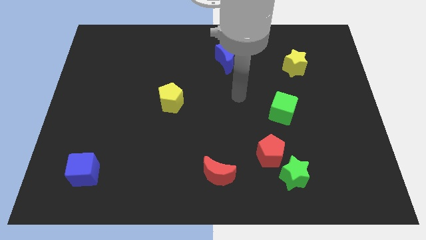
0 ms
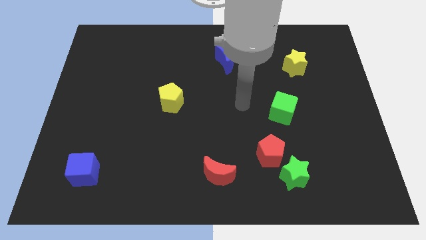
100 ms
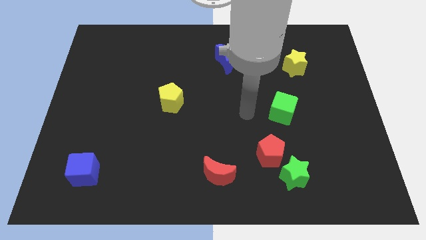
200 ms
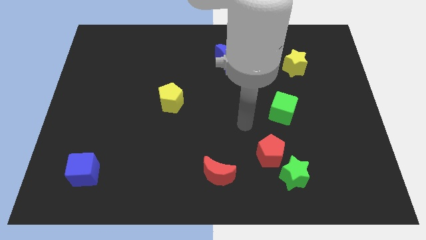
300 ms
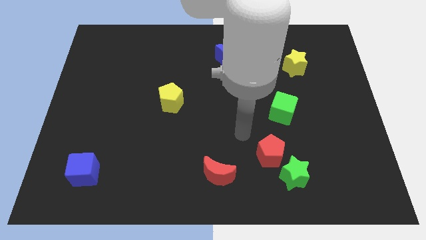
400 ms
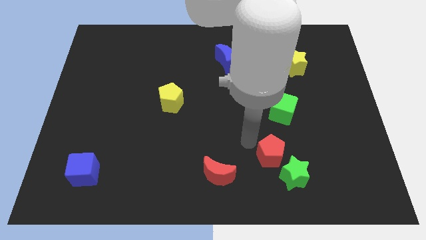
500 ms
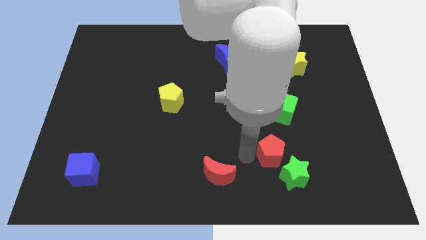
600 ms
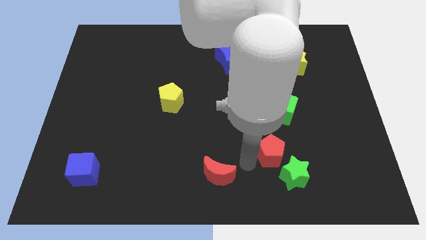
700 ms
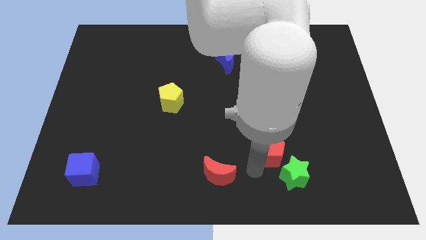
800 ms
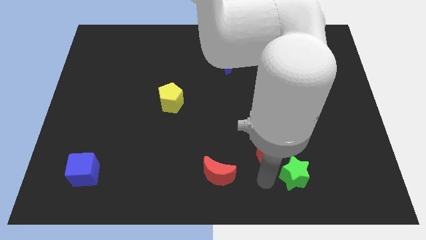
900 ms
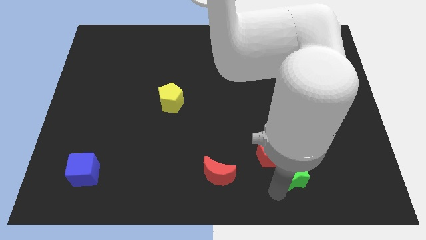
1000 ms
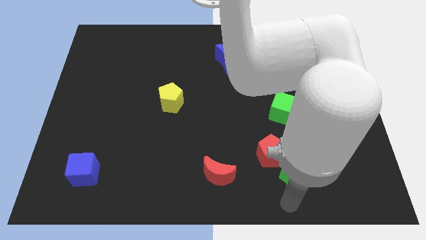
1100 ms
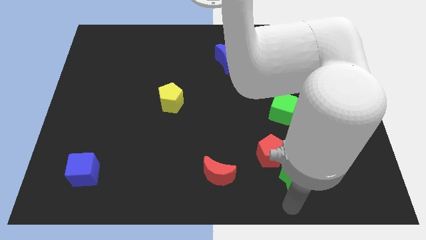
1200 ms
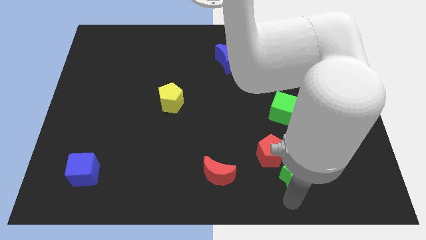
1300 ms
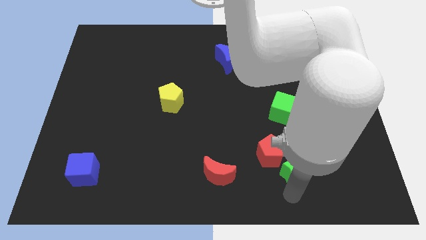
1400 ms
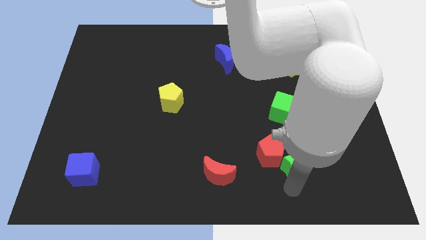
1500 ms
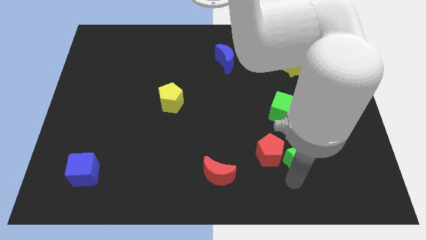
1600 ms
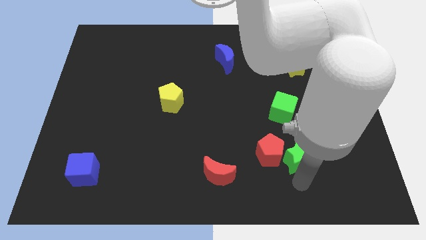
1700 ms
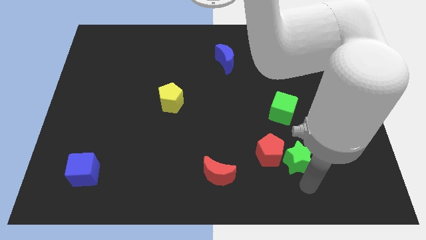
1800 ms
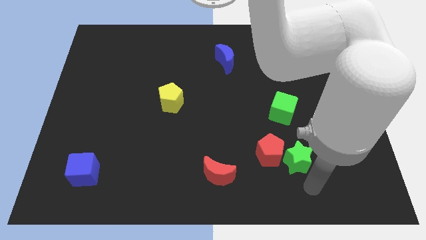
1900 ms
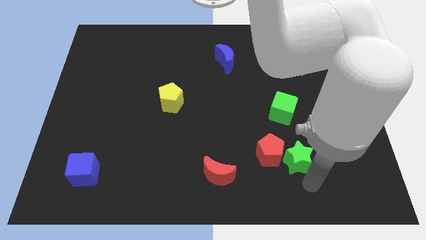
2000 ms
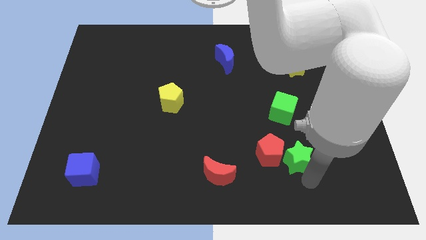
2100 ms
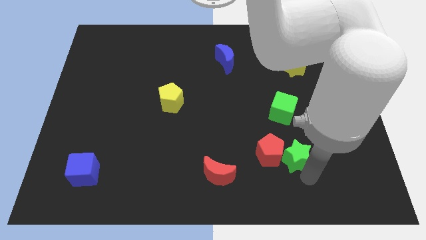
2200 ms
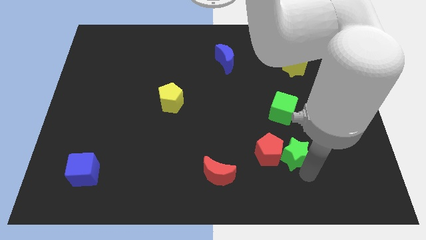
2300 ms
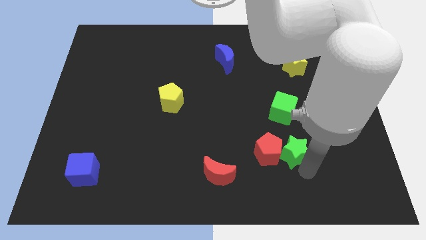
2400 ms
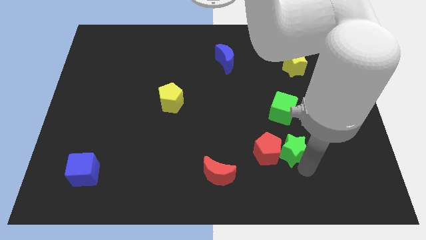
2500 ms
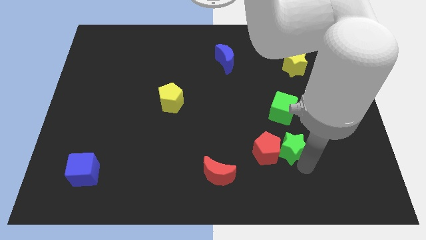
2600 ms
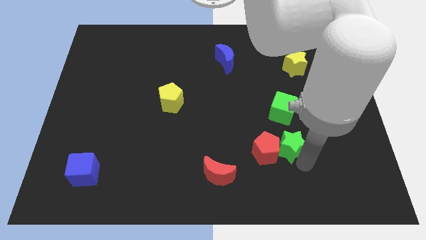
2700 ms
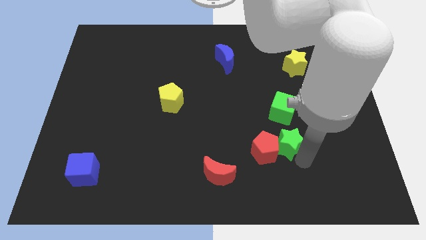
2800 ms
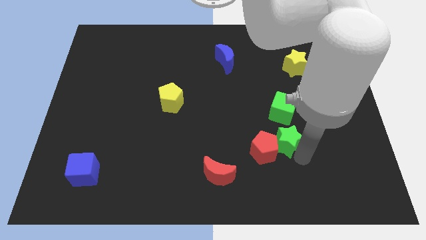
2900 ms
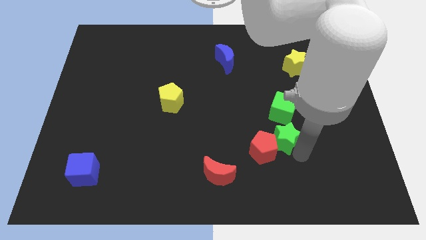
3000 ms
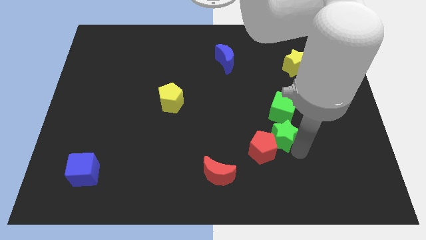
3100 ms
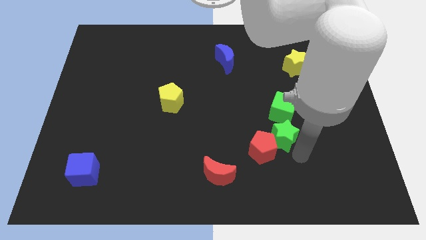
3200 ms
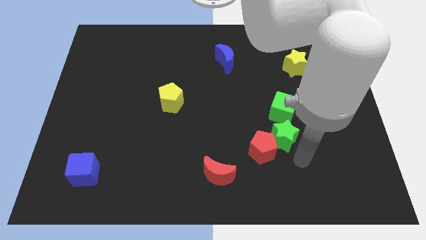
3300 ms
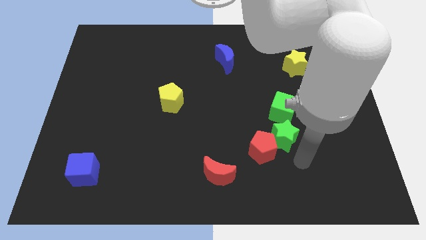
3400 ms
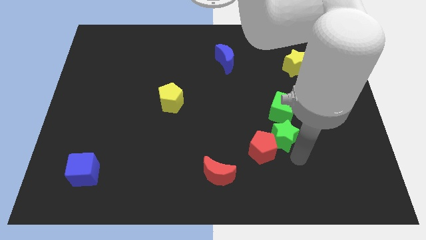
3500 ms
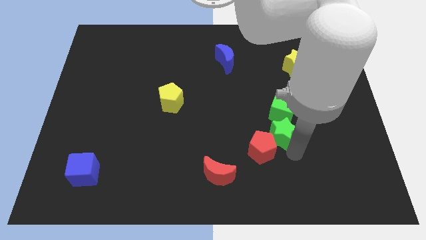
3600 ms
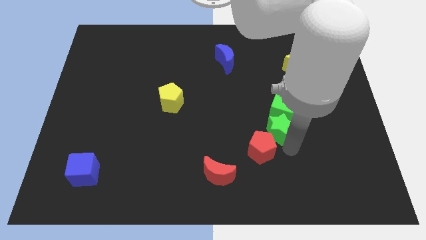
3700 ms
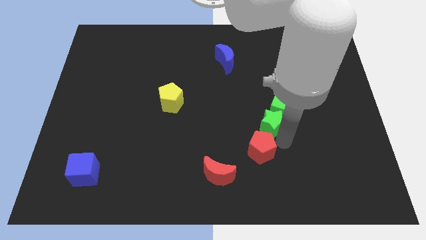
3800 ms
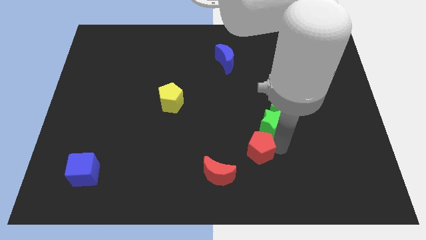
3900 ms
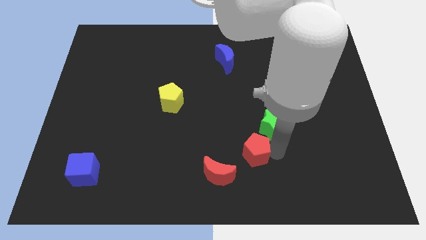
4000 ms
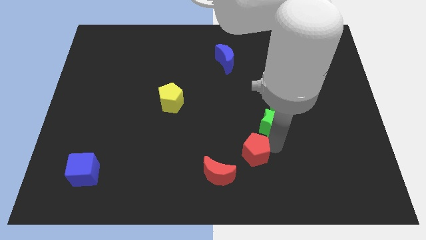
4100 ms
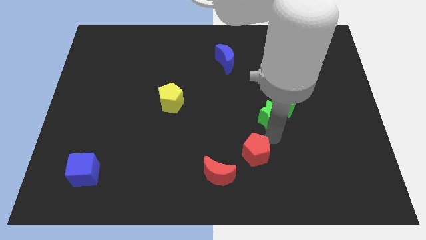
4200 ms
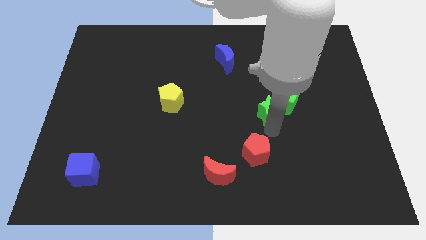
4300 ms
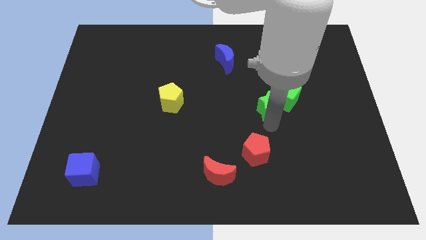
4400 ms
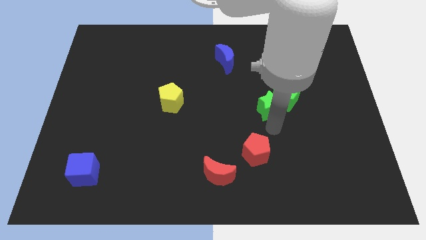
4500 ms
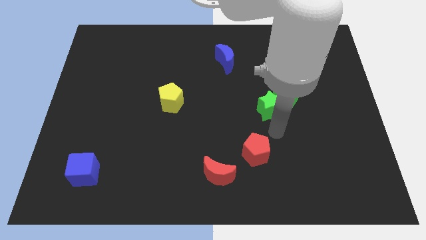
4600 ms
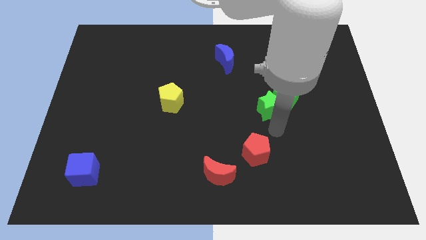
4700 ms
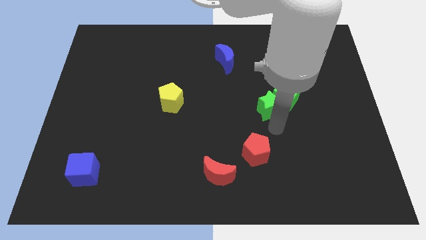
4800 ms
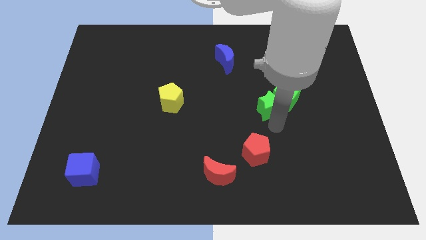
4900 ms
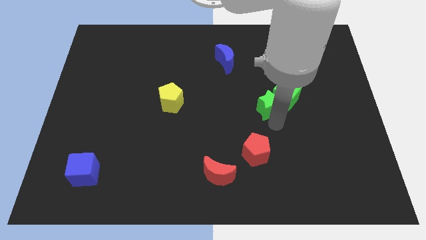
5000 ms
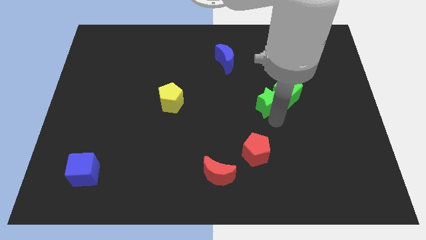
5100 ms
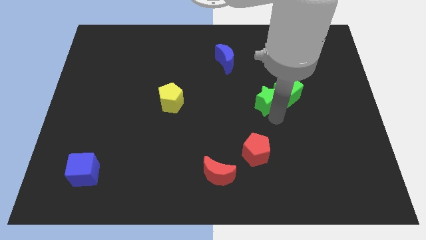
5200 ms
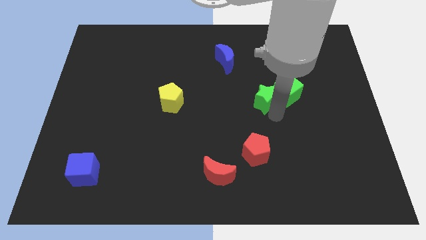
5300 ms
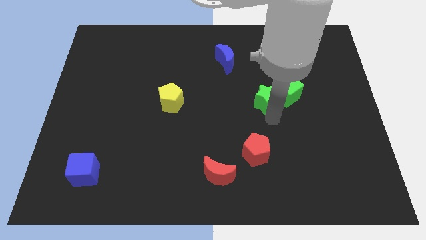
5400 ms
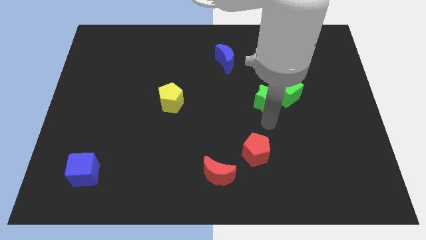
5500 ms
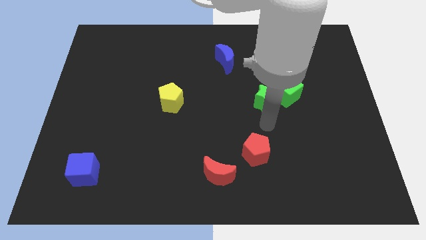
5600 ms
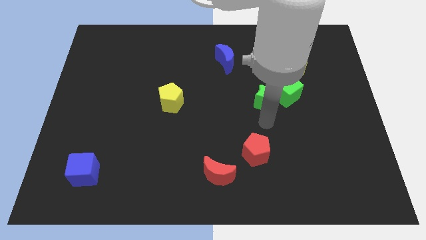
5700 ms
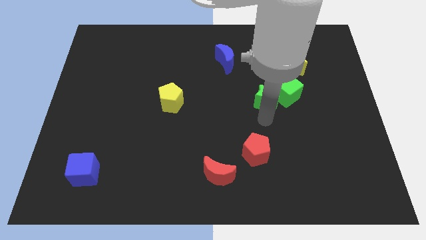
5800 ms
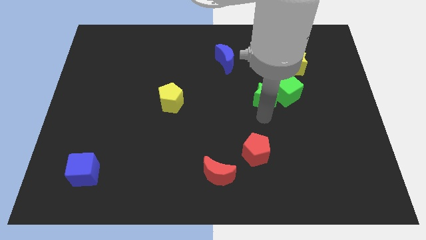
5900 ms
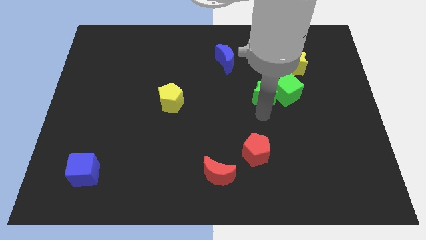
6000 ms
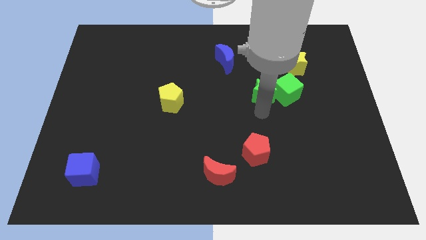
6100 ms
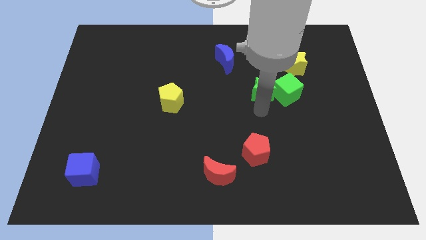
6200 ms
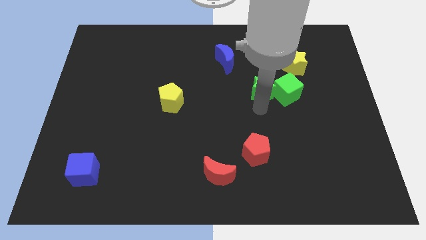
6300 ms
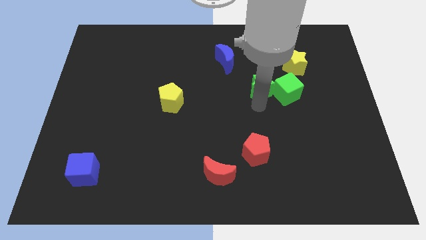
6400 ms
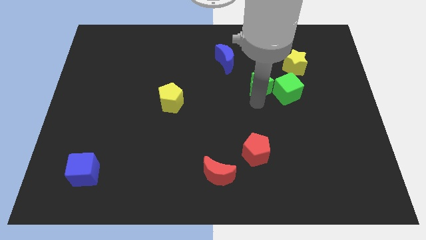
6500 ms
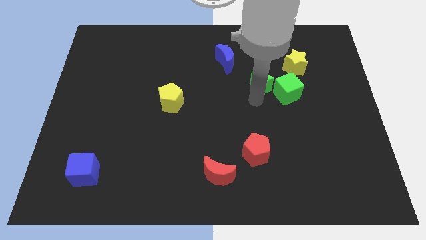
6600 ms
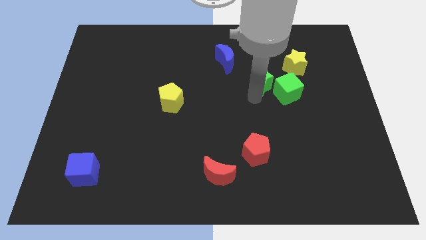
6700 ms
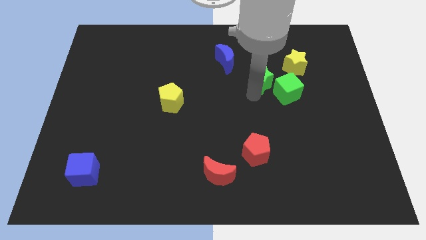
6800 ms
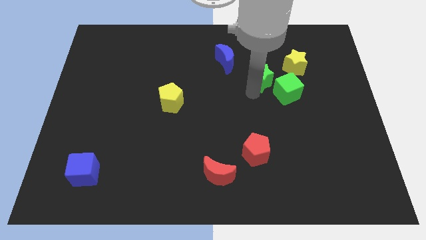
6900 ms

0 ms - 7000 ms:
push the green star to the left of the yellow star

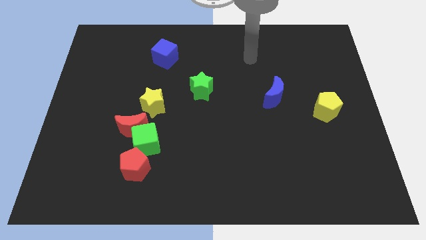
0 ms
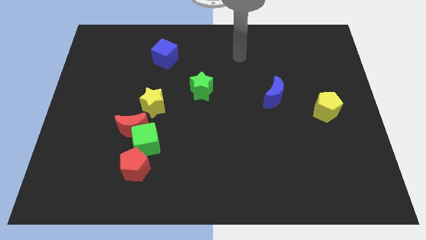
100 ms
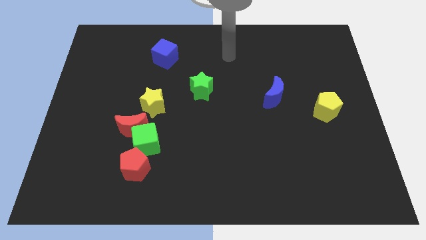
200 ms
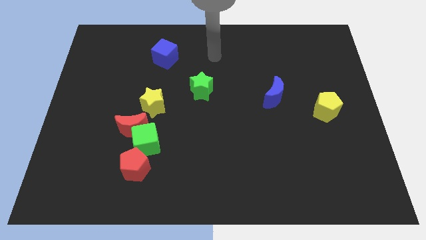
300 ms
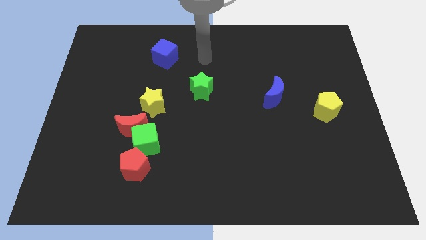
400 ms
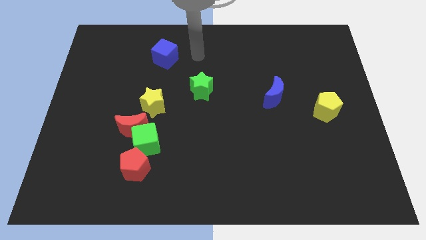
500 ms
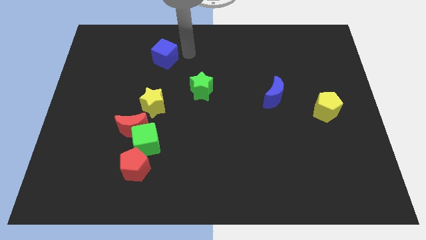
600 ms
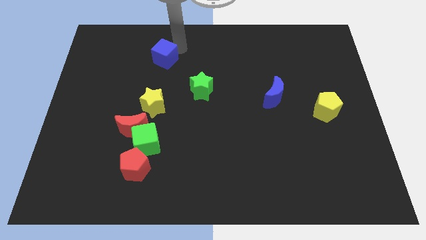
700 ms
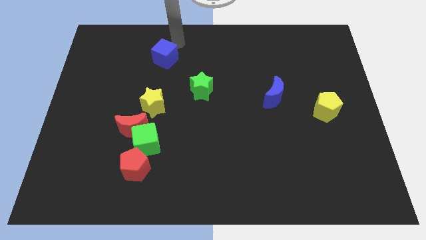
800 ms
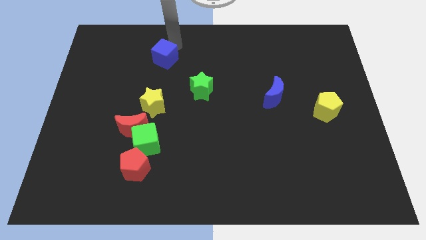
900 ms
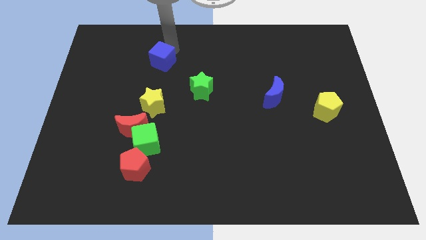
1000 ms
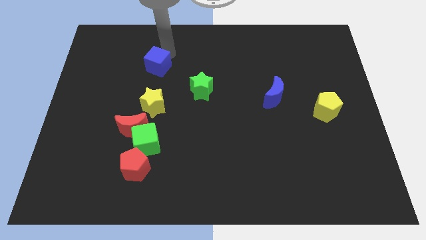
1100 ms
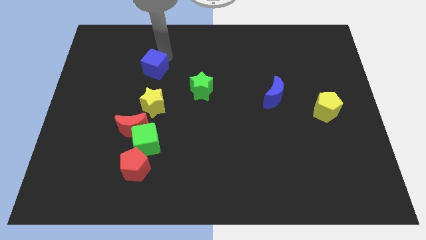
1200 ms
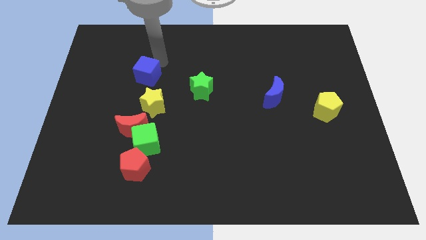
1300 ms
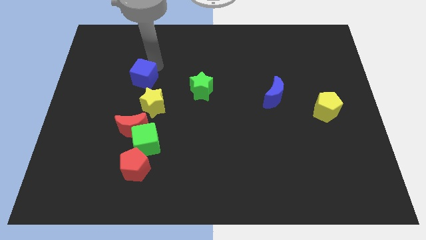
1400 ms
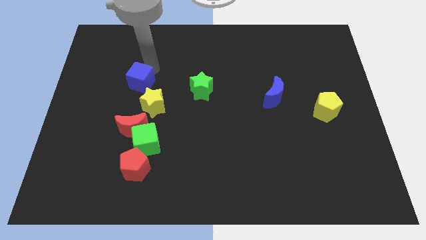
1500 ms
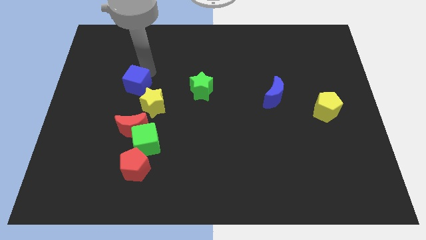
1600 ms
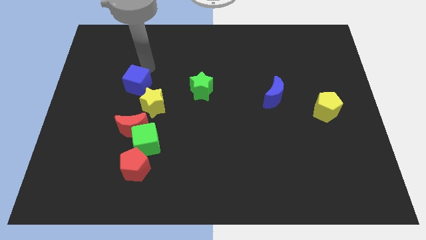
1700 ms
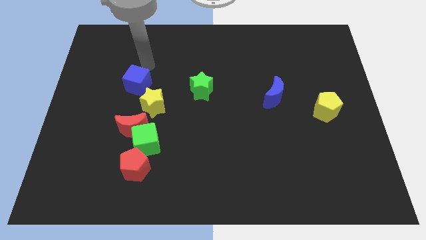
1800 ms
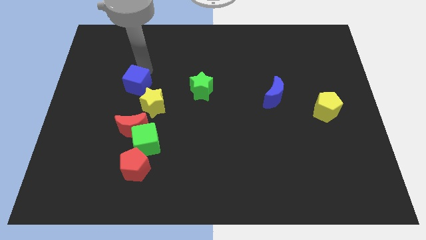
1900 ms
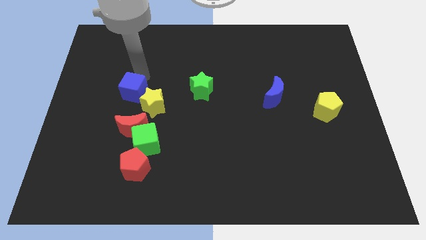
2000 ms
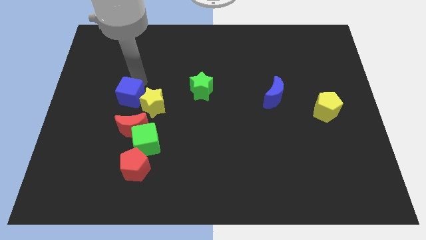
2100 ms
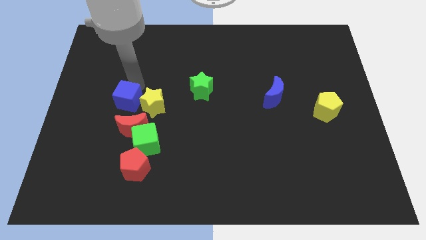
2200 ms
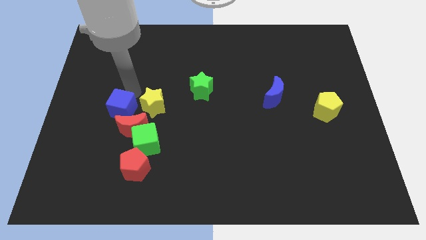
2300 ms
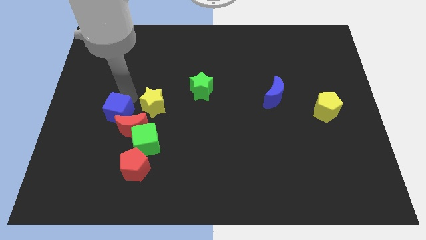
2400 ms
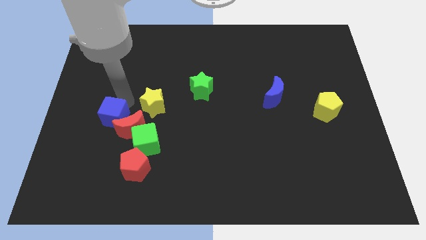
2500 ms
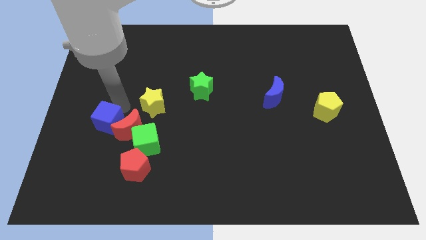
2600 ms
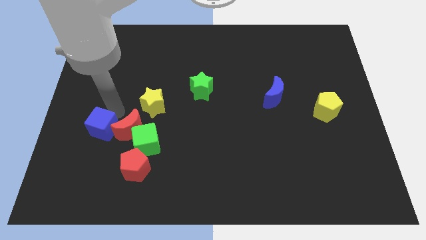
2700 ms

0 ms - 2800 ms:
move the blue cube left of the green cube
